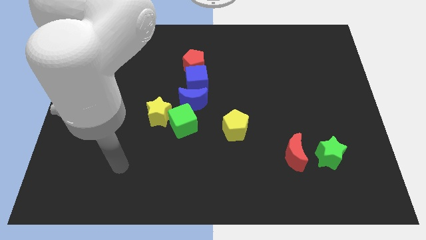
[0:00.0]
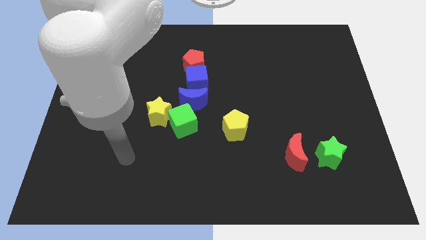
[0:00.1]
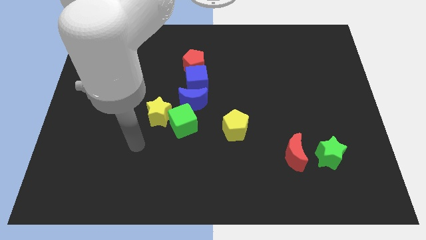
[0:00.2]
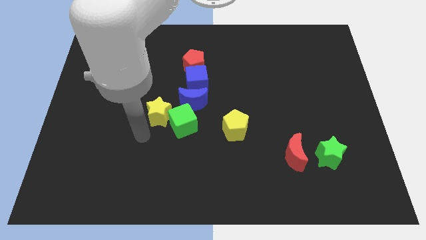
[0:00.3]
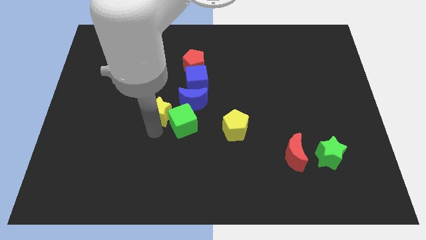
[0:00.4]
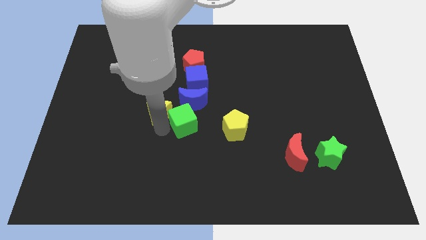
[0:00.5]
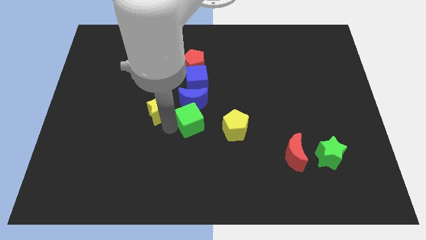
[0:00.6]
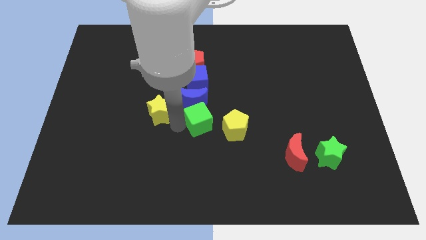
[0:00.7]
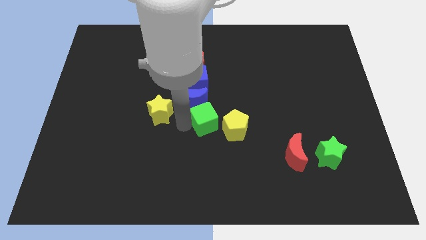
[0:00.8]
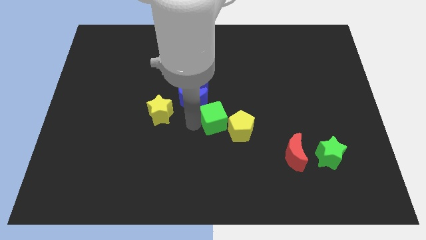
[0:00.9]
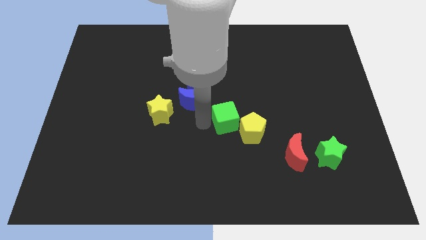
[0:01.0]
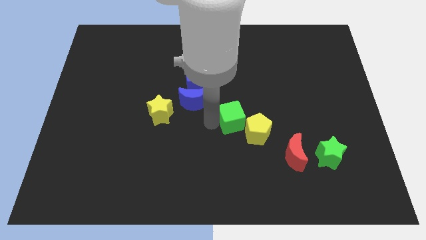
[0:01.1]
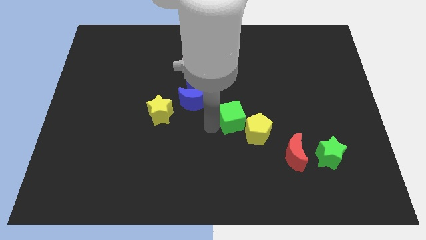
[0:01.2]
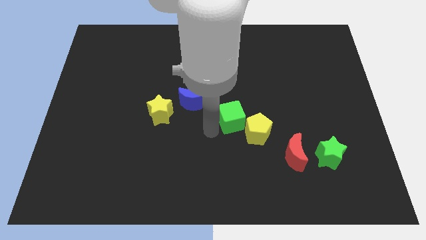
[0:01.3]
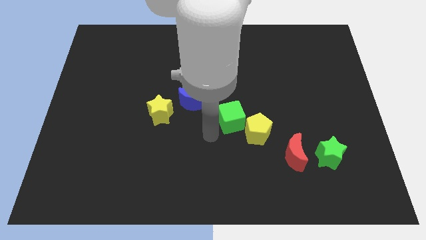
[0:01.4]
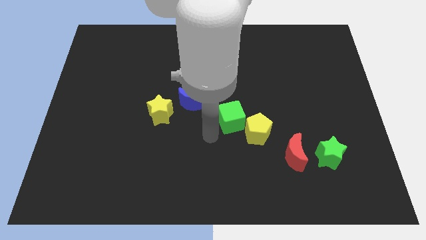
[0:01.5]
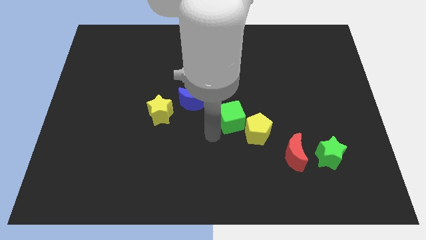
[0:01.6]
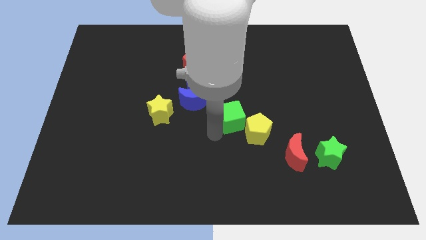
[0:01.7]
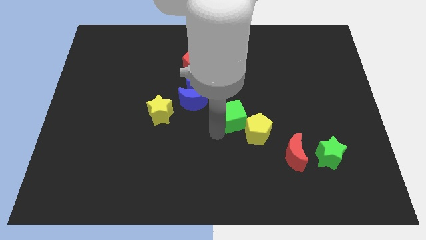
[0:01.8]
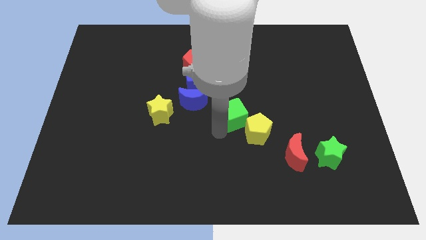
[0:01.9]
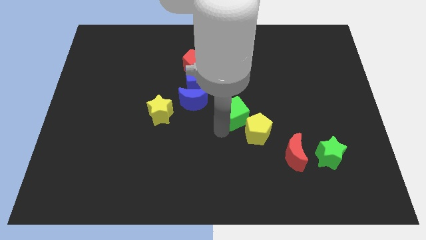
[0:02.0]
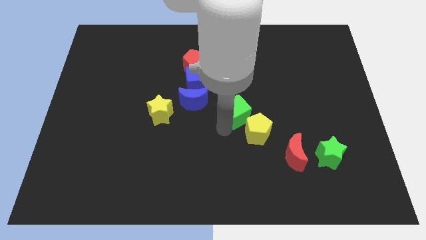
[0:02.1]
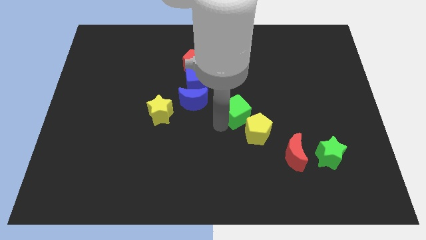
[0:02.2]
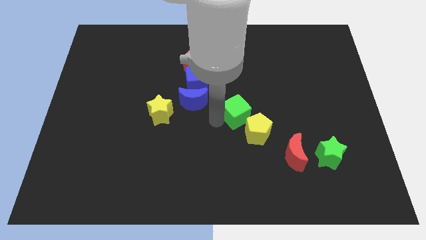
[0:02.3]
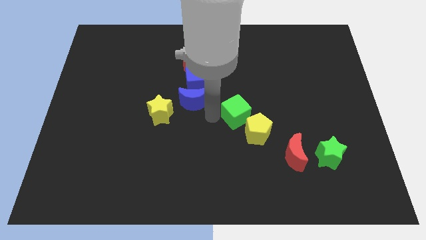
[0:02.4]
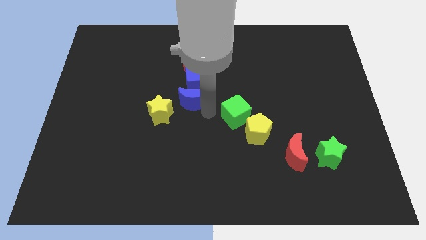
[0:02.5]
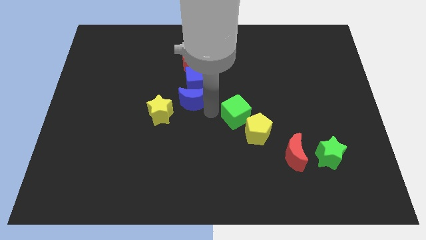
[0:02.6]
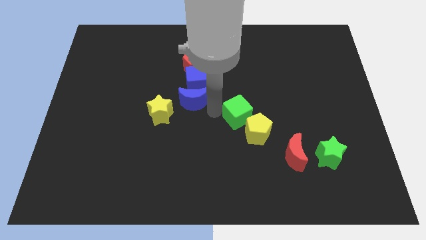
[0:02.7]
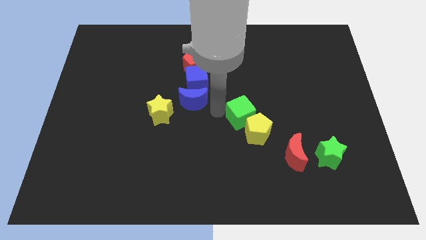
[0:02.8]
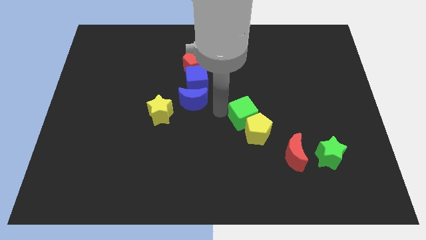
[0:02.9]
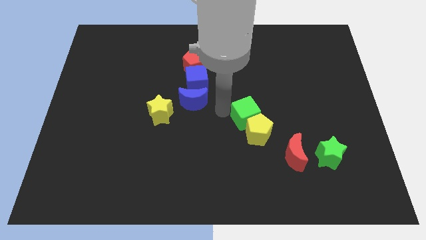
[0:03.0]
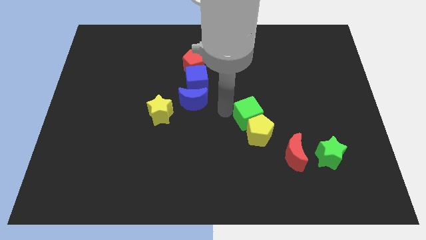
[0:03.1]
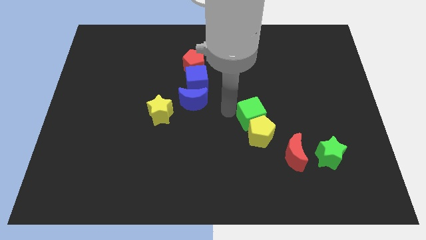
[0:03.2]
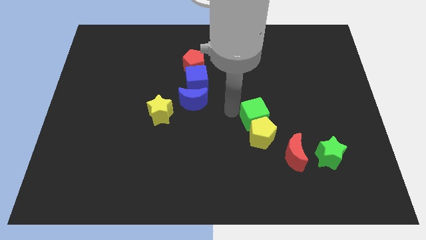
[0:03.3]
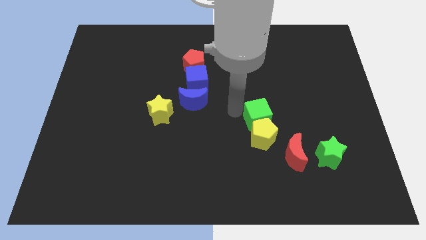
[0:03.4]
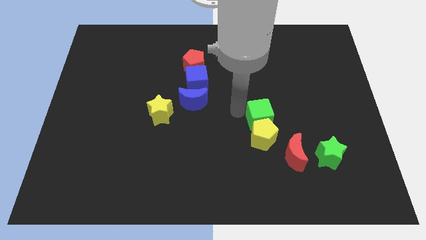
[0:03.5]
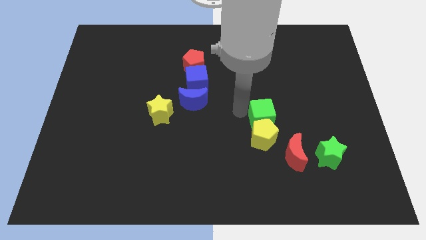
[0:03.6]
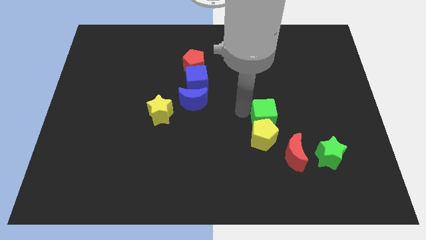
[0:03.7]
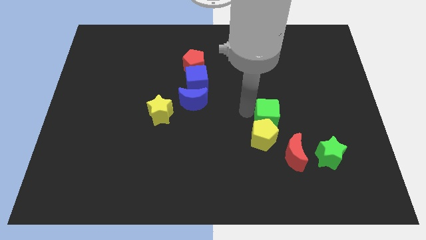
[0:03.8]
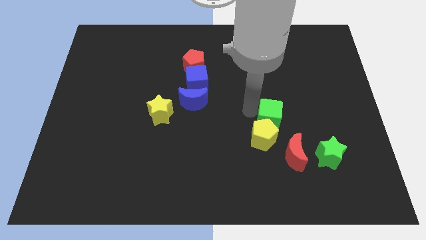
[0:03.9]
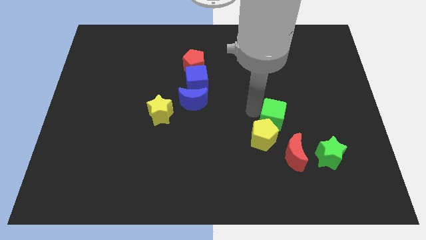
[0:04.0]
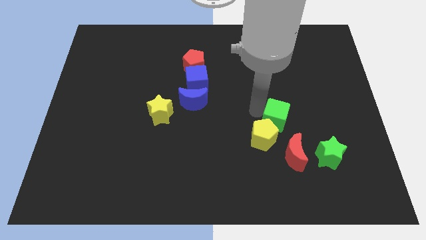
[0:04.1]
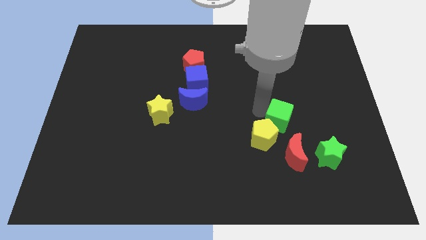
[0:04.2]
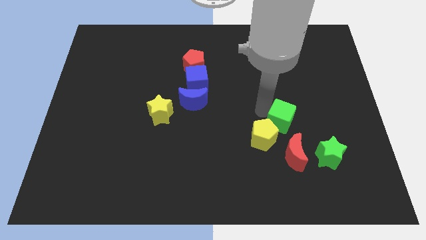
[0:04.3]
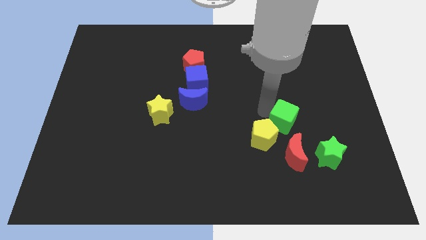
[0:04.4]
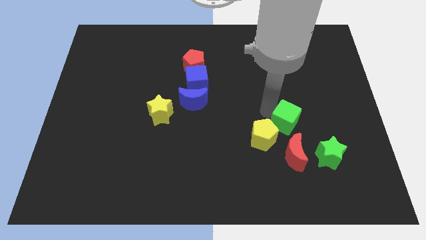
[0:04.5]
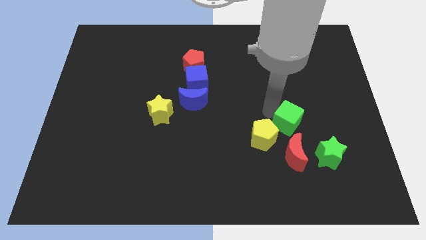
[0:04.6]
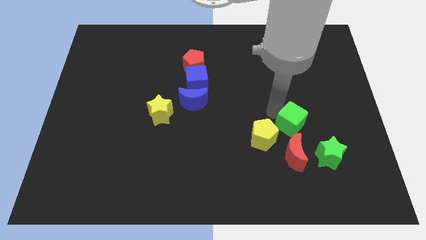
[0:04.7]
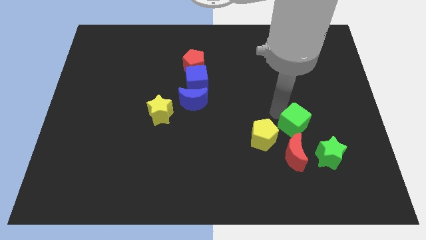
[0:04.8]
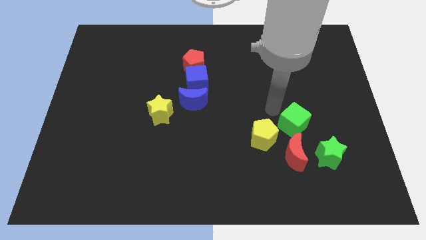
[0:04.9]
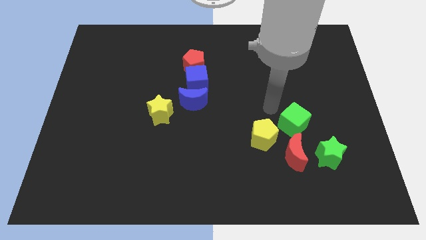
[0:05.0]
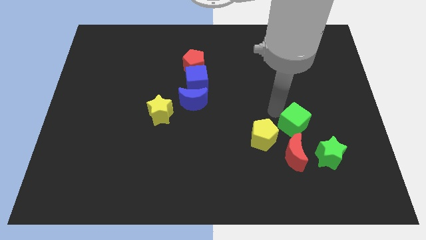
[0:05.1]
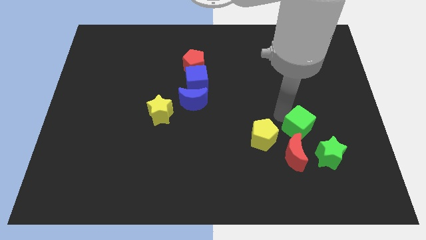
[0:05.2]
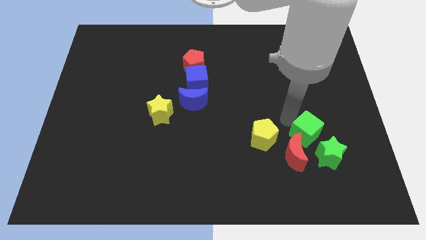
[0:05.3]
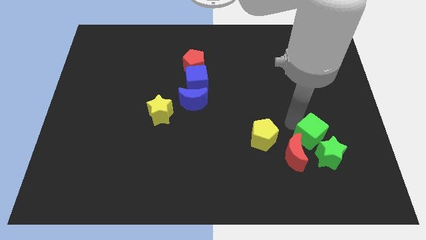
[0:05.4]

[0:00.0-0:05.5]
slide the green cube towards the green star

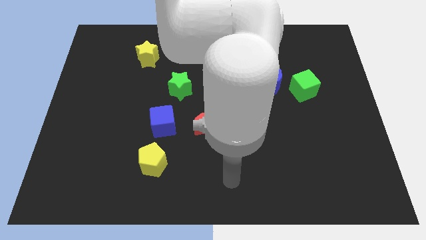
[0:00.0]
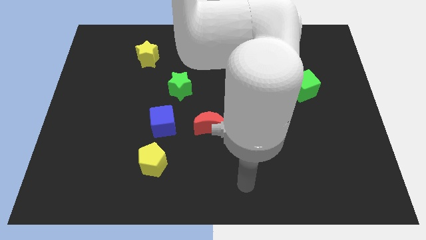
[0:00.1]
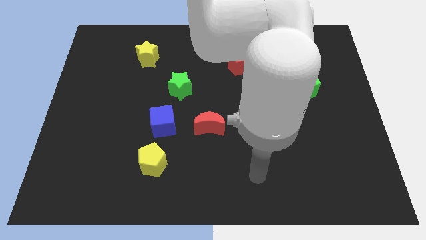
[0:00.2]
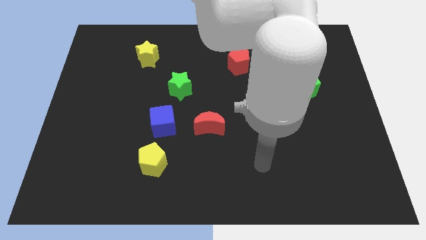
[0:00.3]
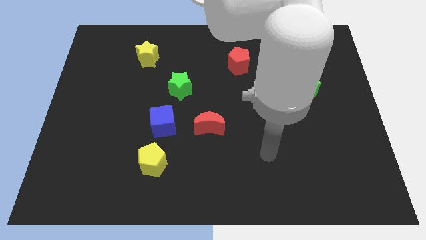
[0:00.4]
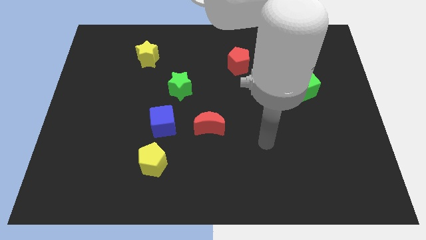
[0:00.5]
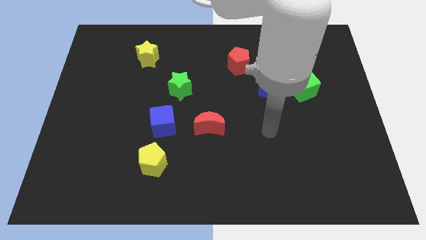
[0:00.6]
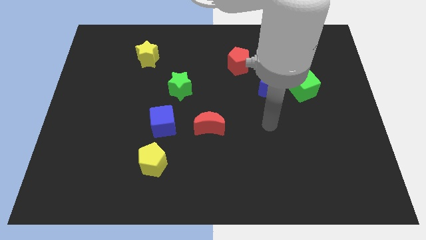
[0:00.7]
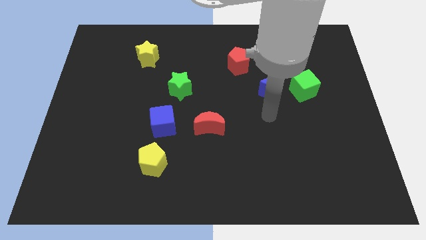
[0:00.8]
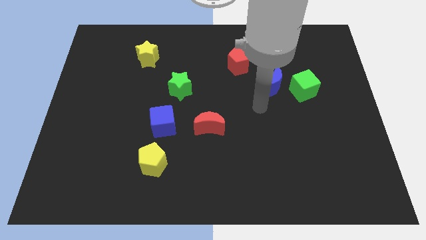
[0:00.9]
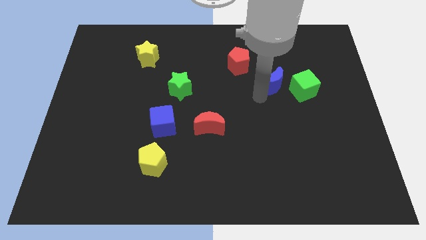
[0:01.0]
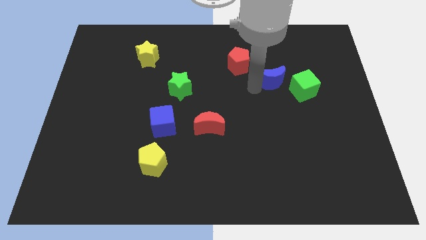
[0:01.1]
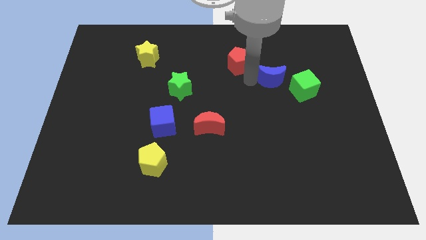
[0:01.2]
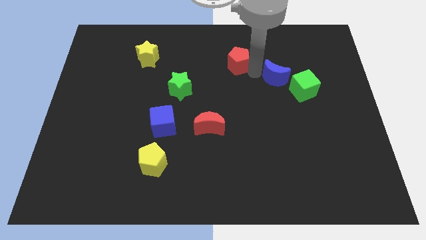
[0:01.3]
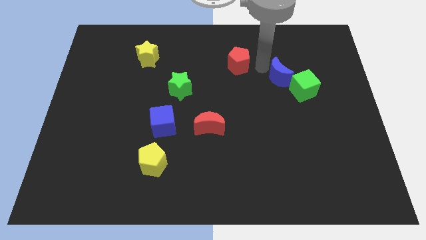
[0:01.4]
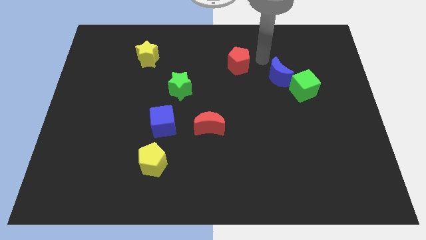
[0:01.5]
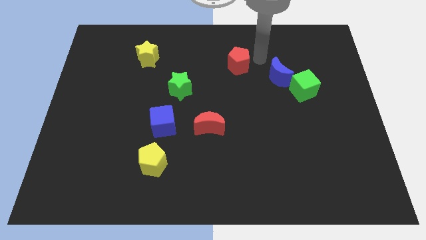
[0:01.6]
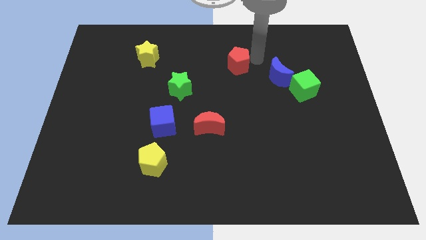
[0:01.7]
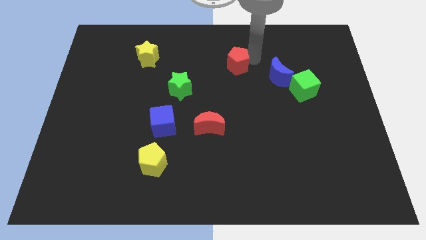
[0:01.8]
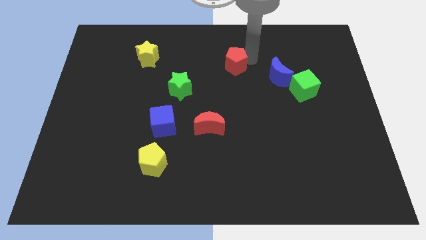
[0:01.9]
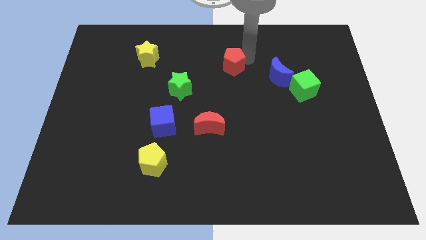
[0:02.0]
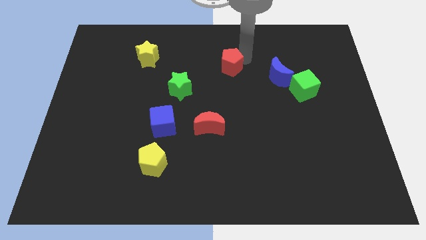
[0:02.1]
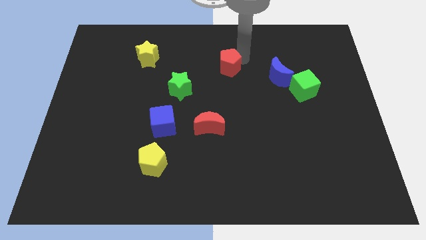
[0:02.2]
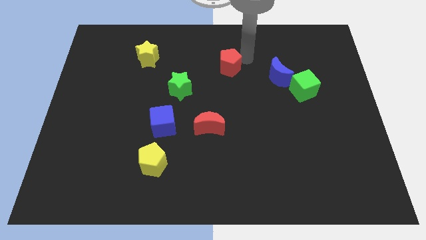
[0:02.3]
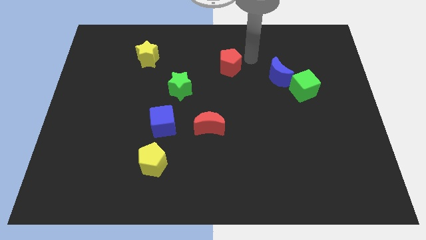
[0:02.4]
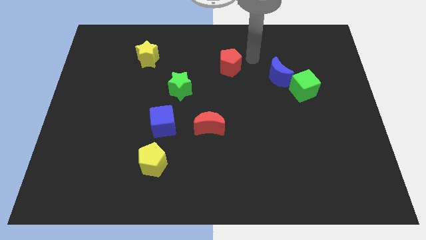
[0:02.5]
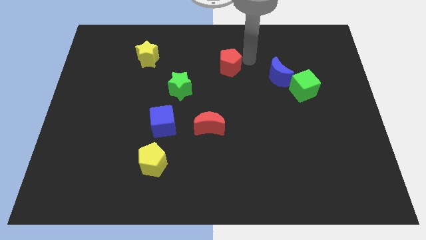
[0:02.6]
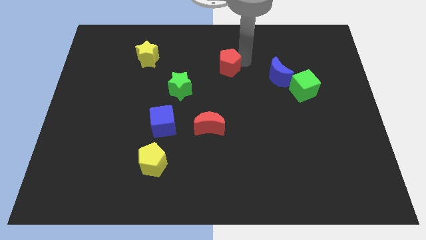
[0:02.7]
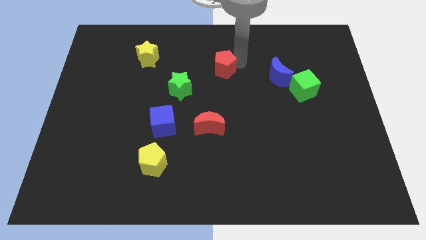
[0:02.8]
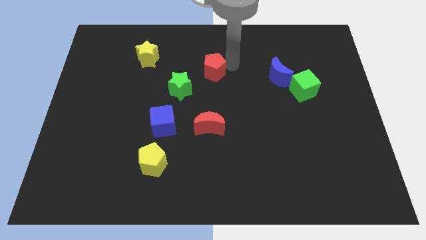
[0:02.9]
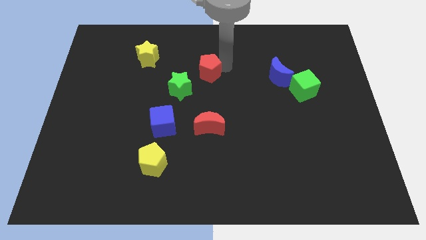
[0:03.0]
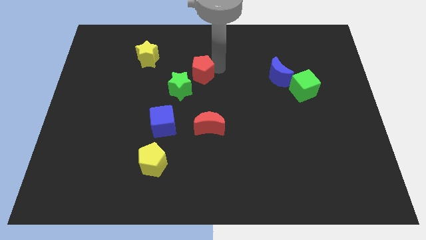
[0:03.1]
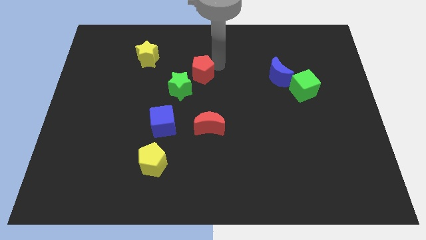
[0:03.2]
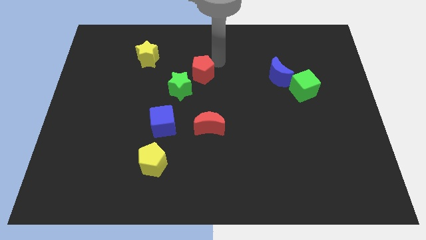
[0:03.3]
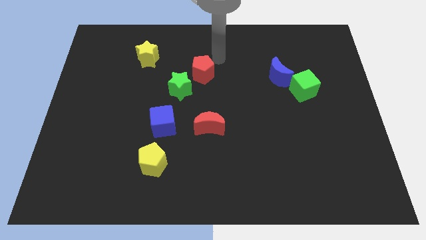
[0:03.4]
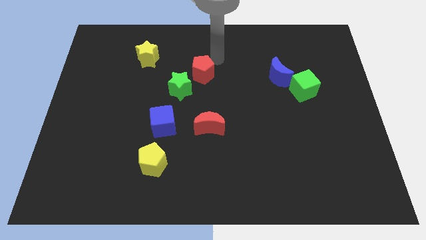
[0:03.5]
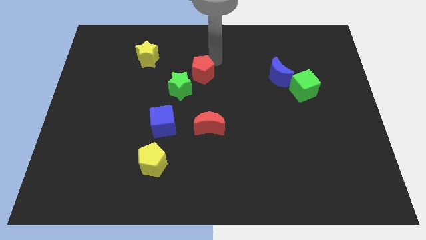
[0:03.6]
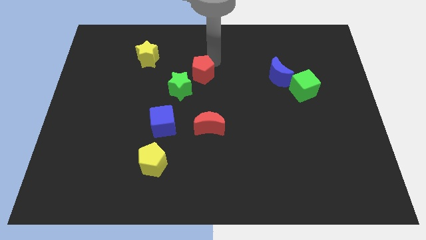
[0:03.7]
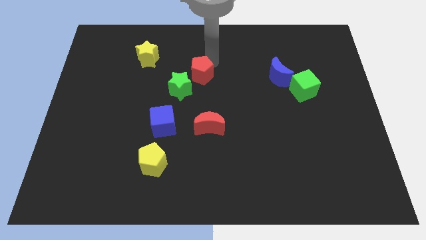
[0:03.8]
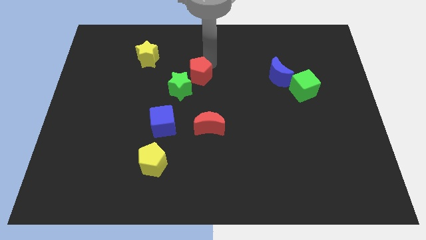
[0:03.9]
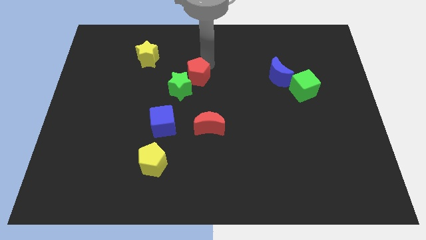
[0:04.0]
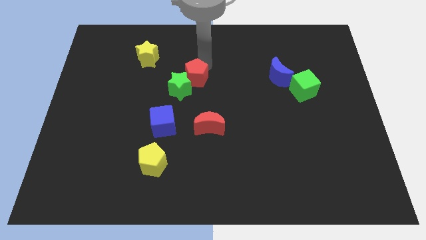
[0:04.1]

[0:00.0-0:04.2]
slide the red pentagon towards the green star
